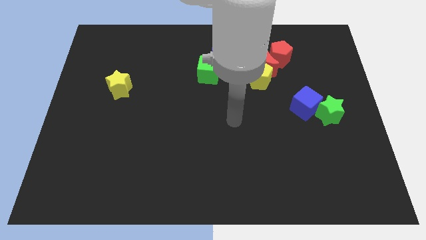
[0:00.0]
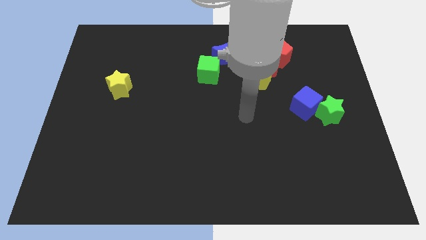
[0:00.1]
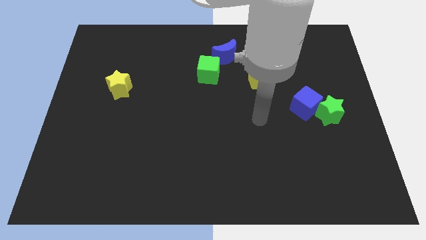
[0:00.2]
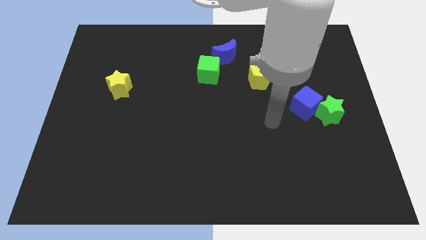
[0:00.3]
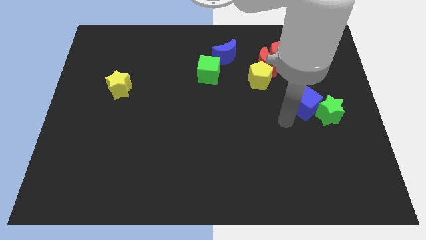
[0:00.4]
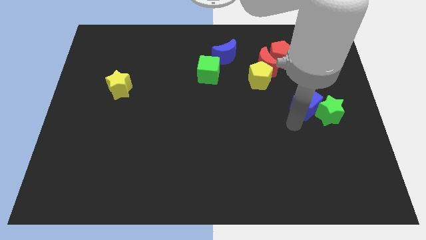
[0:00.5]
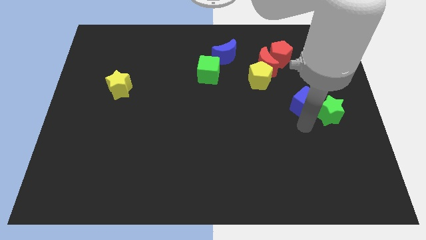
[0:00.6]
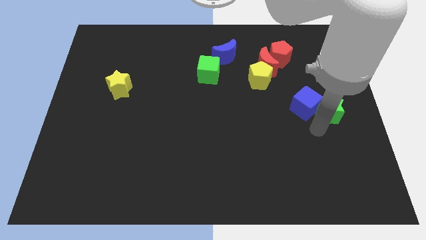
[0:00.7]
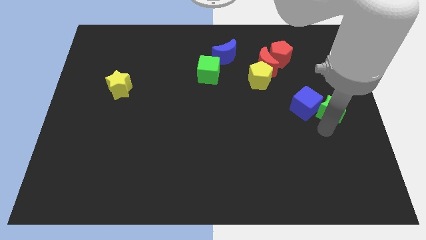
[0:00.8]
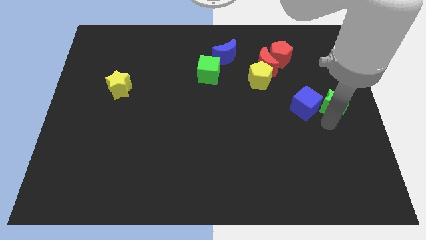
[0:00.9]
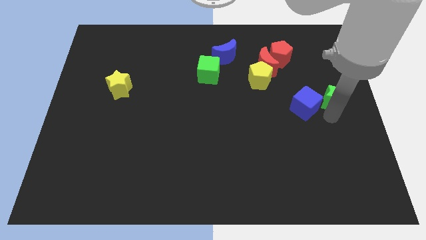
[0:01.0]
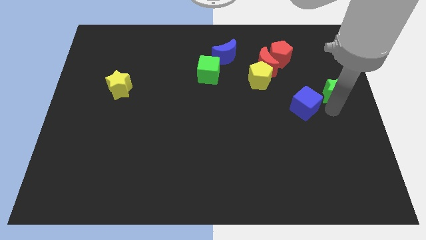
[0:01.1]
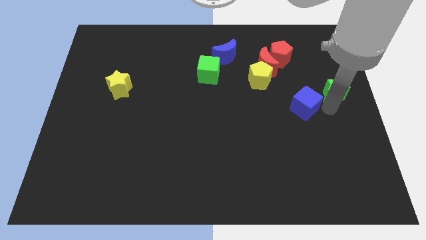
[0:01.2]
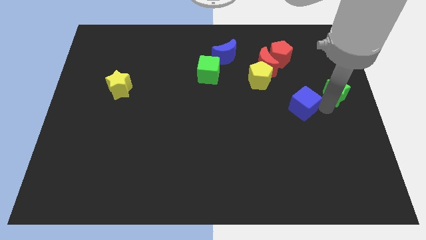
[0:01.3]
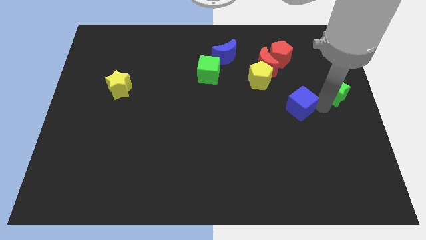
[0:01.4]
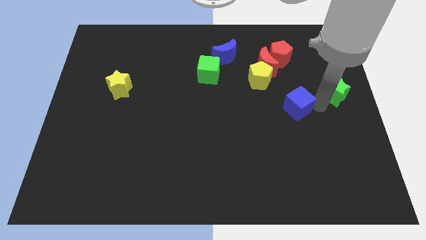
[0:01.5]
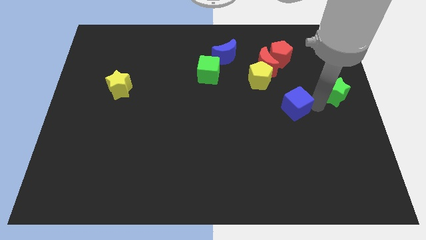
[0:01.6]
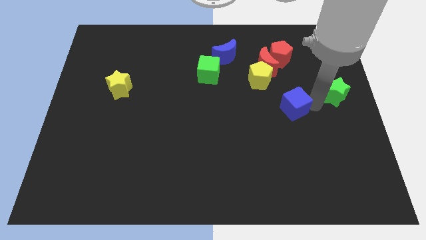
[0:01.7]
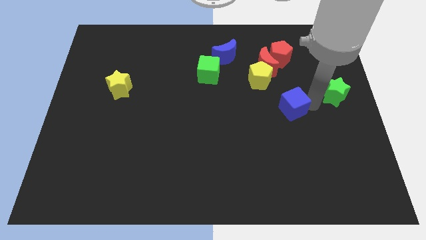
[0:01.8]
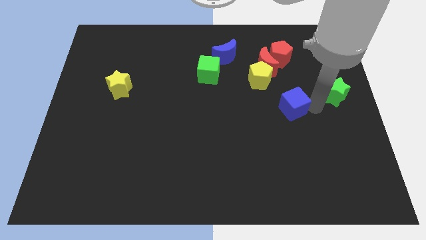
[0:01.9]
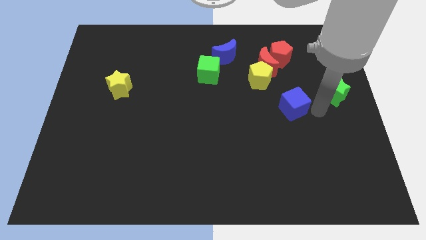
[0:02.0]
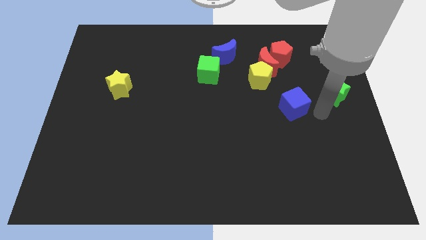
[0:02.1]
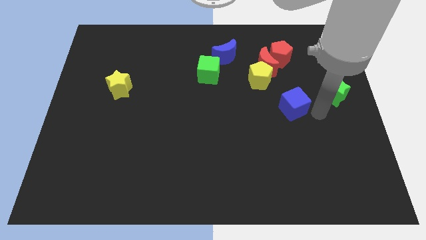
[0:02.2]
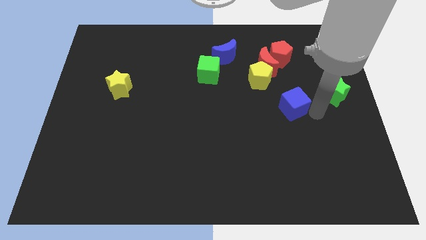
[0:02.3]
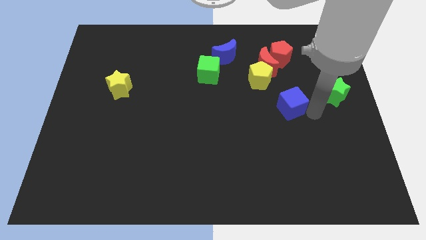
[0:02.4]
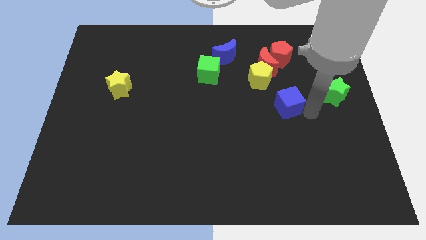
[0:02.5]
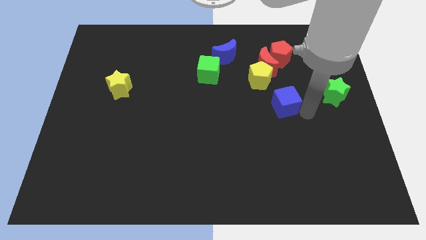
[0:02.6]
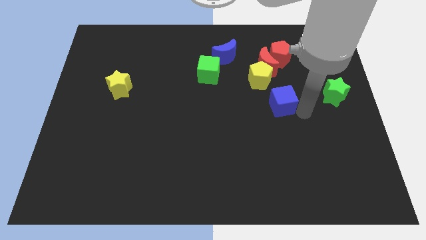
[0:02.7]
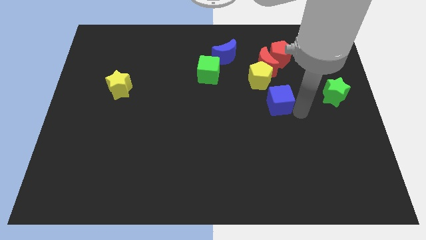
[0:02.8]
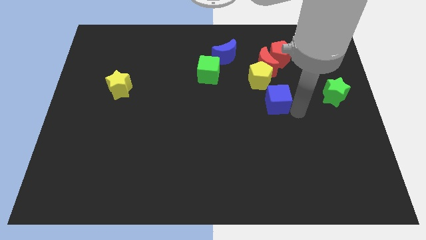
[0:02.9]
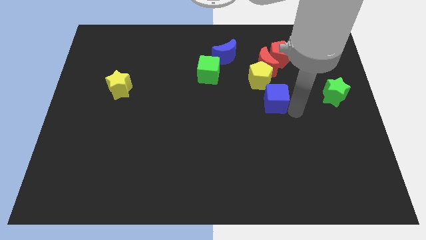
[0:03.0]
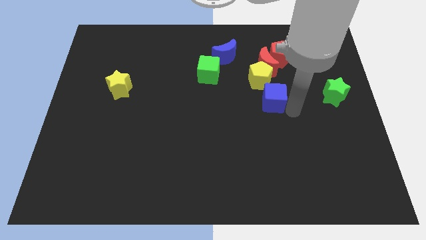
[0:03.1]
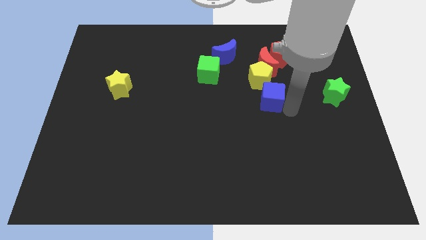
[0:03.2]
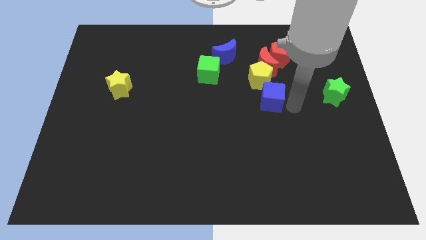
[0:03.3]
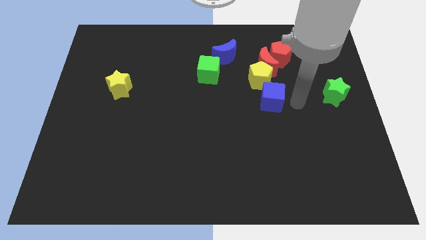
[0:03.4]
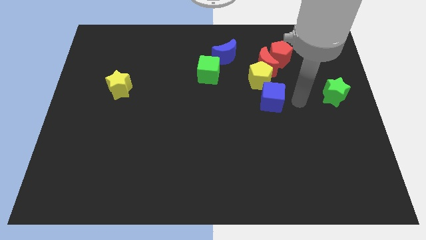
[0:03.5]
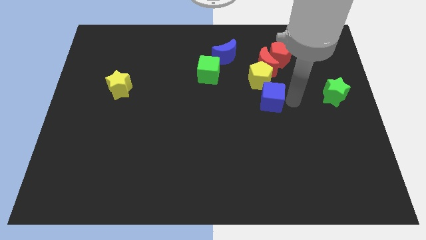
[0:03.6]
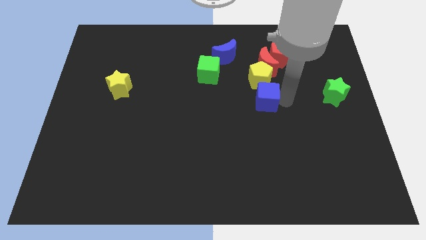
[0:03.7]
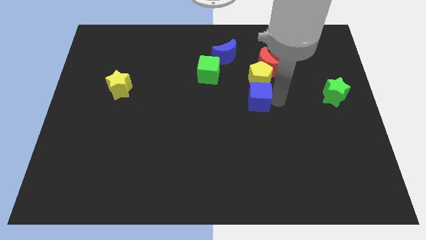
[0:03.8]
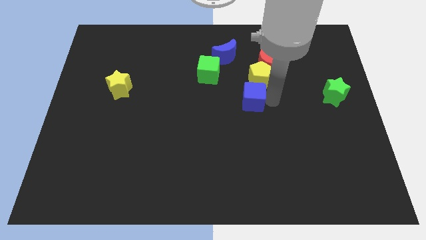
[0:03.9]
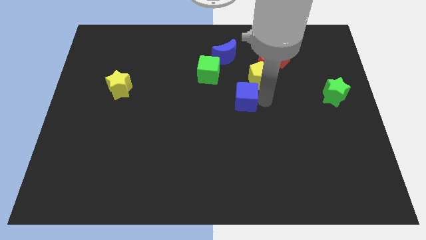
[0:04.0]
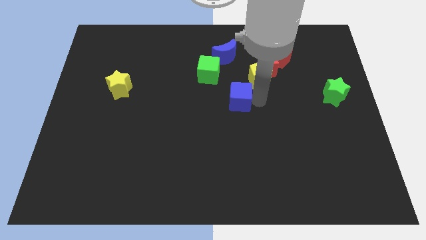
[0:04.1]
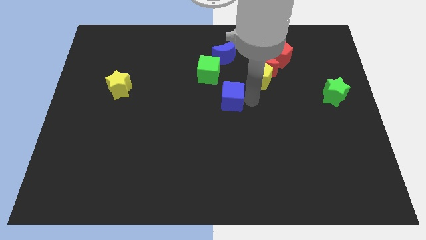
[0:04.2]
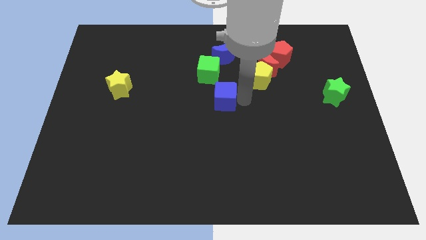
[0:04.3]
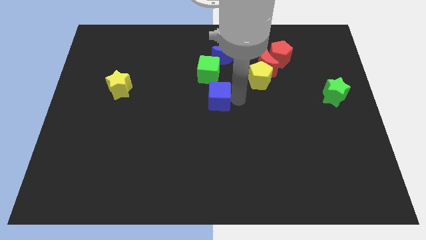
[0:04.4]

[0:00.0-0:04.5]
slide the blue cube left

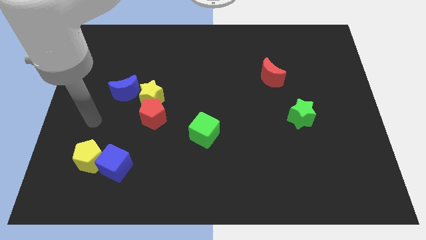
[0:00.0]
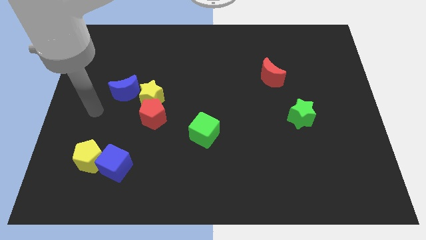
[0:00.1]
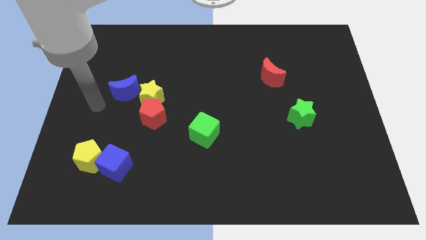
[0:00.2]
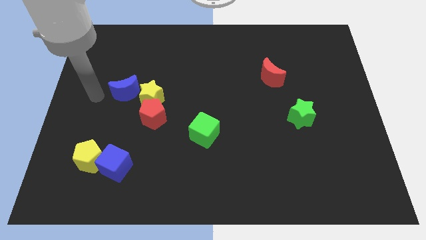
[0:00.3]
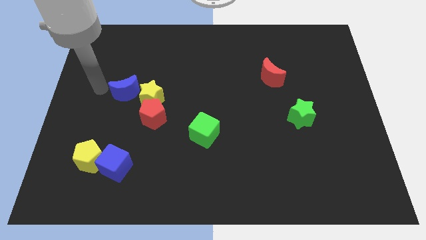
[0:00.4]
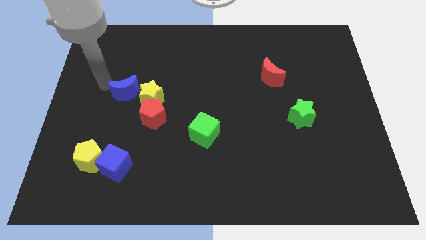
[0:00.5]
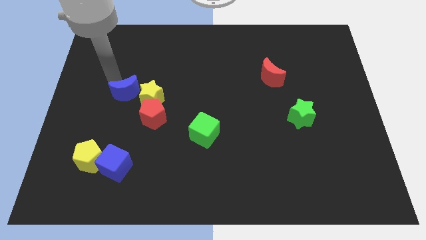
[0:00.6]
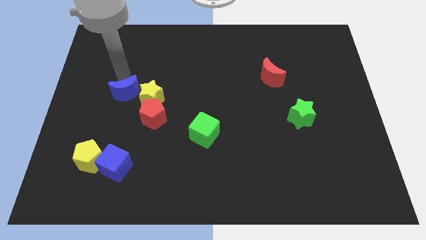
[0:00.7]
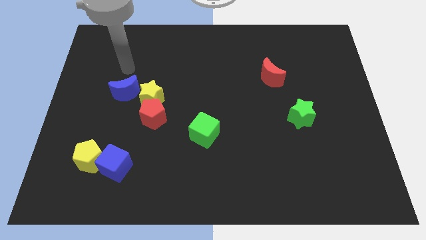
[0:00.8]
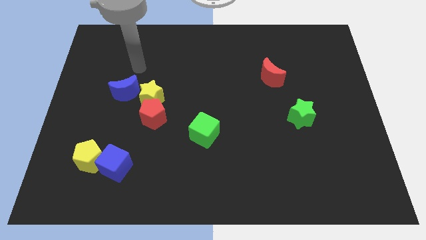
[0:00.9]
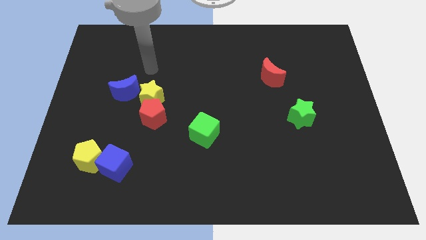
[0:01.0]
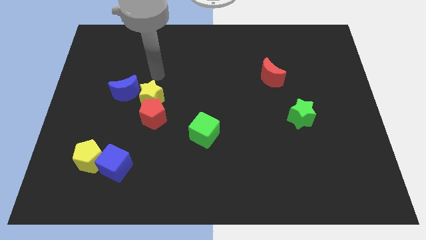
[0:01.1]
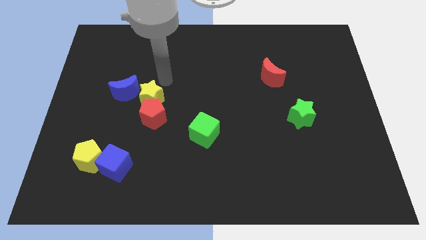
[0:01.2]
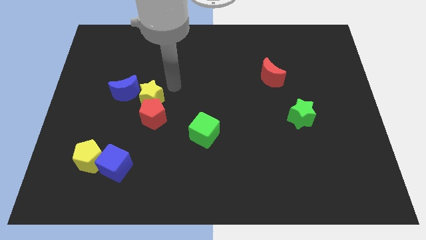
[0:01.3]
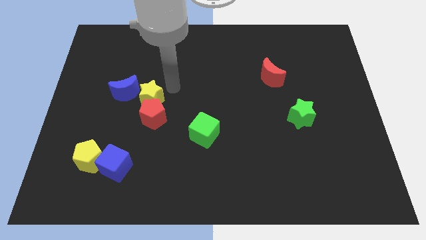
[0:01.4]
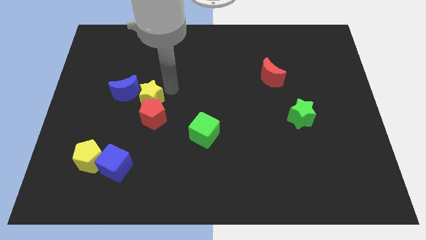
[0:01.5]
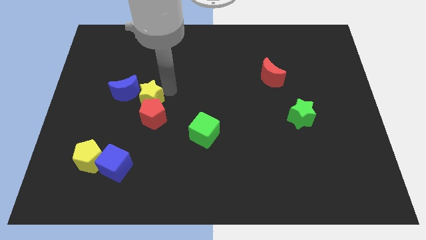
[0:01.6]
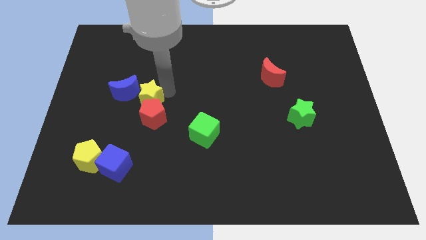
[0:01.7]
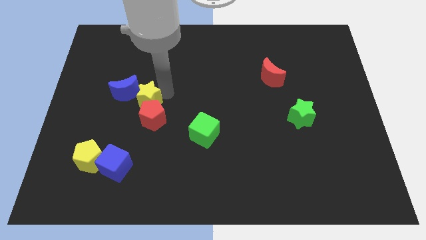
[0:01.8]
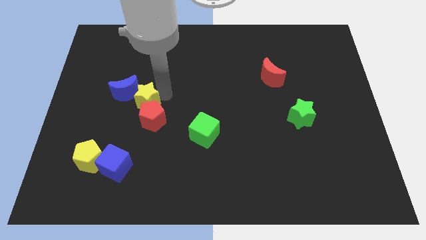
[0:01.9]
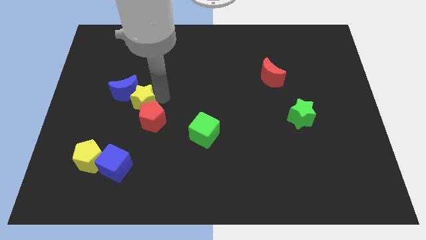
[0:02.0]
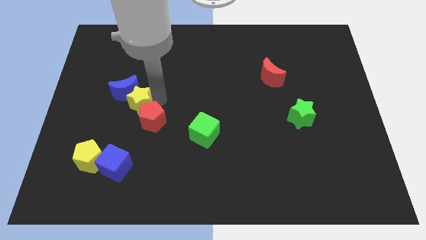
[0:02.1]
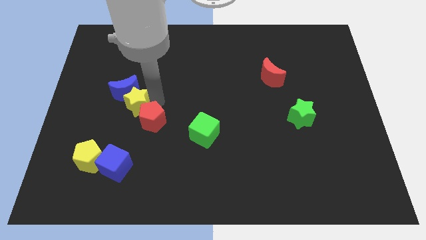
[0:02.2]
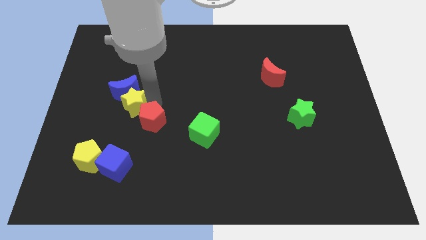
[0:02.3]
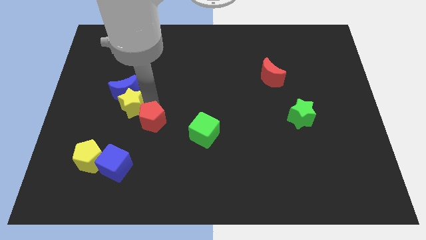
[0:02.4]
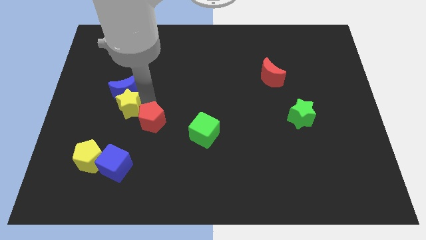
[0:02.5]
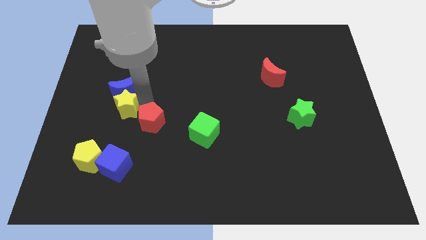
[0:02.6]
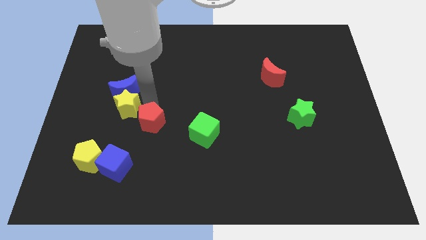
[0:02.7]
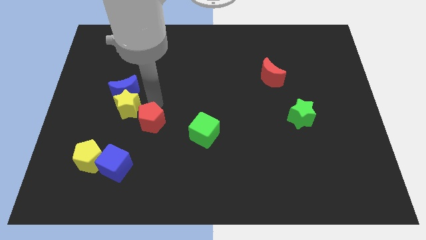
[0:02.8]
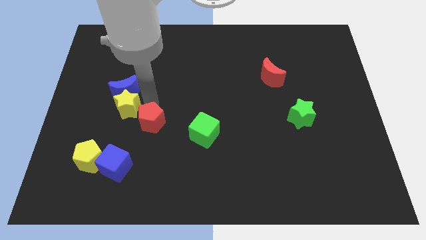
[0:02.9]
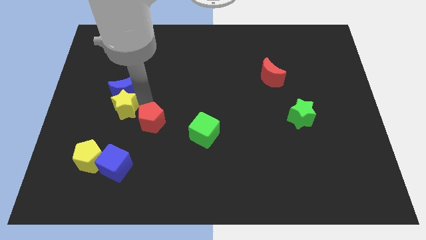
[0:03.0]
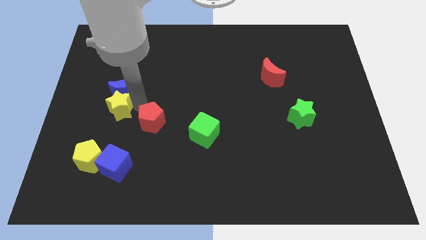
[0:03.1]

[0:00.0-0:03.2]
slightly move the yellow star downwards and then left
